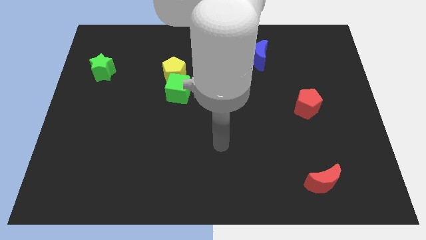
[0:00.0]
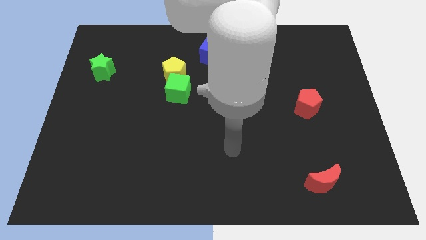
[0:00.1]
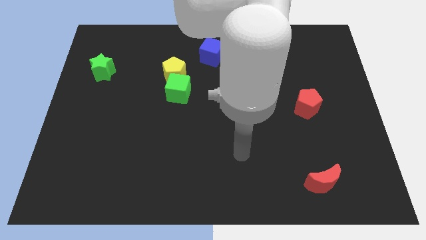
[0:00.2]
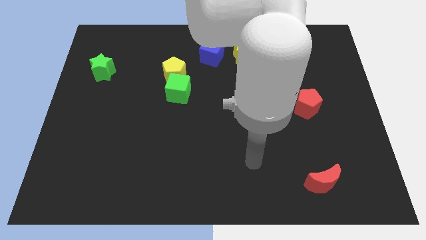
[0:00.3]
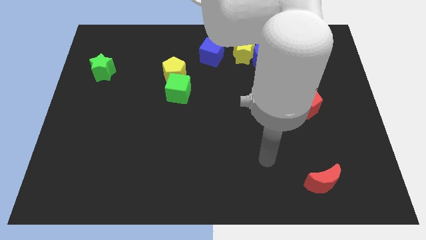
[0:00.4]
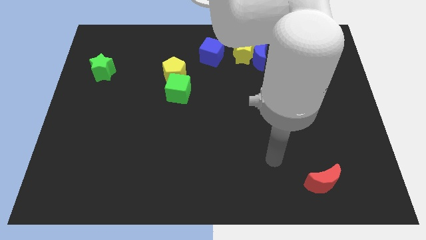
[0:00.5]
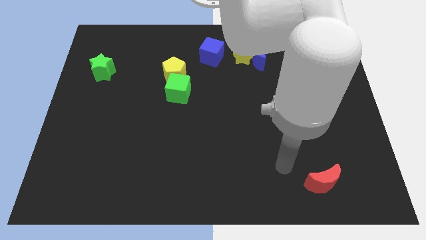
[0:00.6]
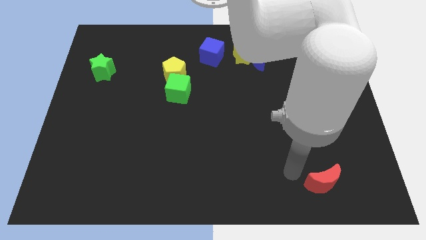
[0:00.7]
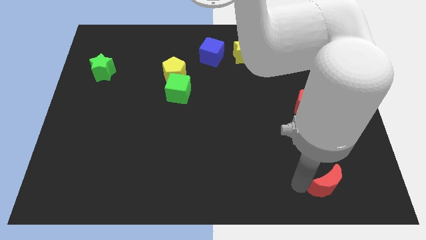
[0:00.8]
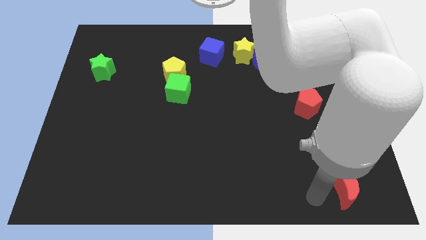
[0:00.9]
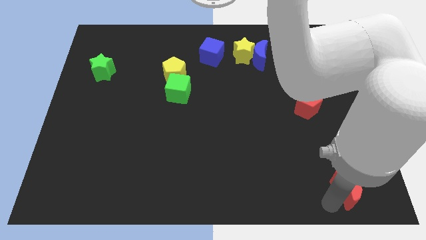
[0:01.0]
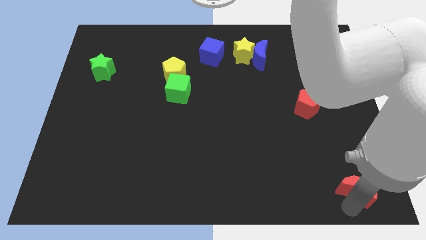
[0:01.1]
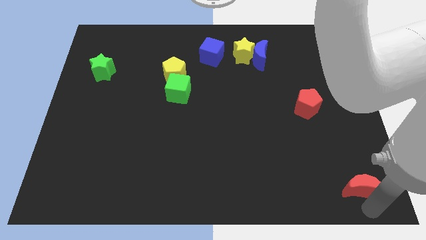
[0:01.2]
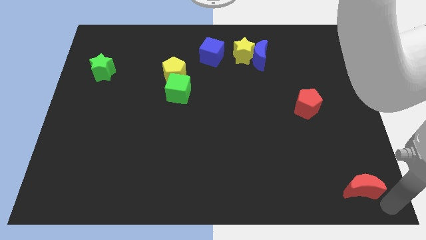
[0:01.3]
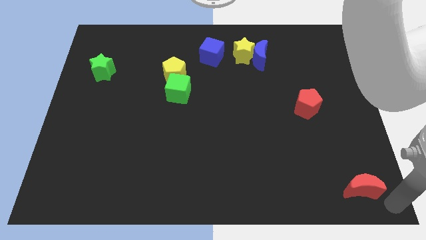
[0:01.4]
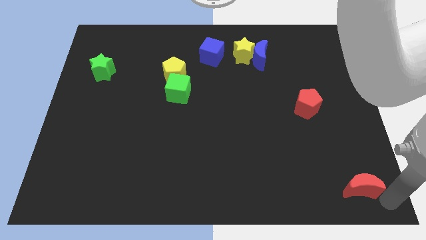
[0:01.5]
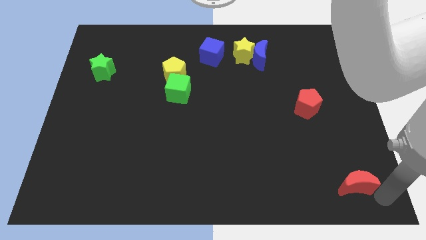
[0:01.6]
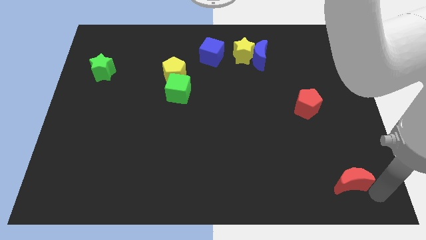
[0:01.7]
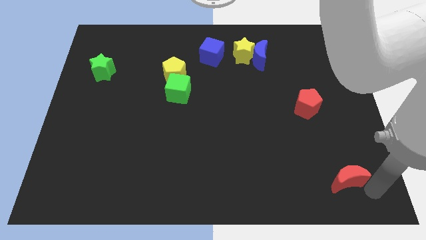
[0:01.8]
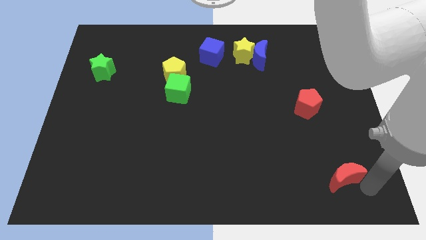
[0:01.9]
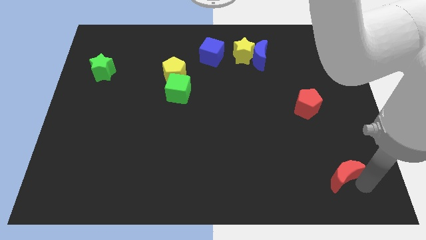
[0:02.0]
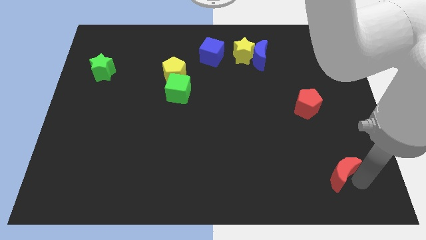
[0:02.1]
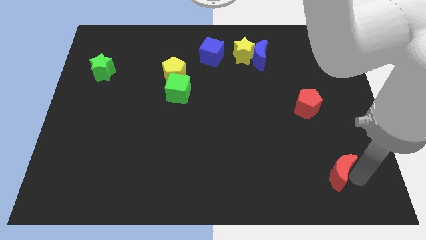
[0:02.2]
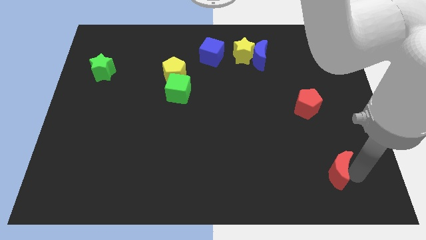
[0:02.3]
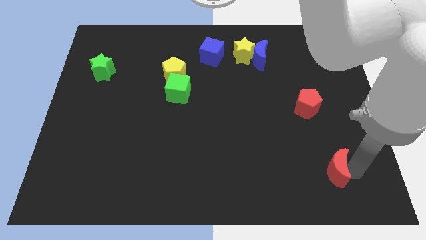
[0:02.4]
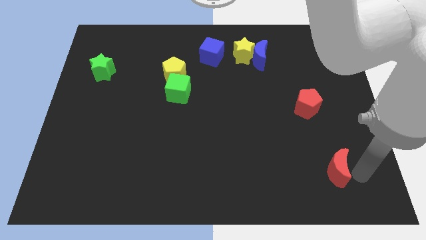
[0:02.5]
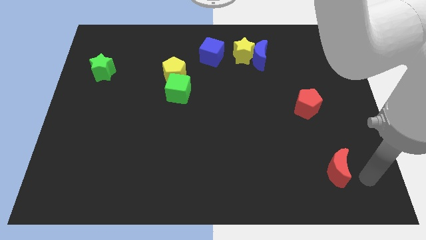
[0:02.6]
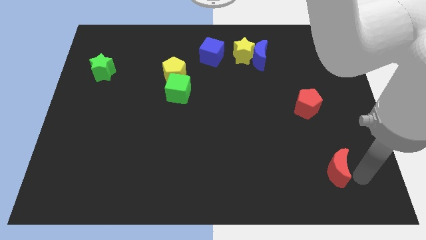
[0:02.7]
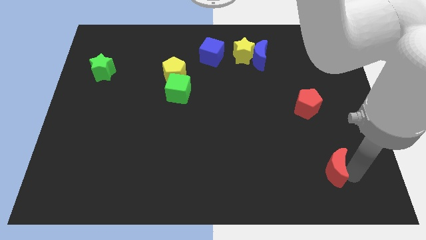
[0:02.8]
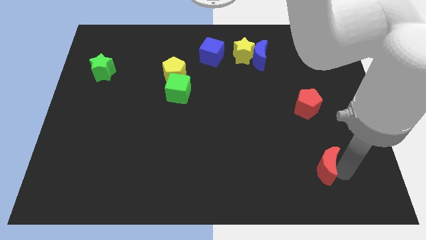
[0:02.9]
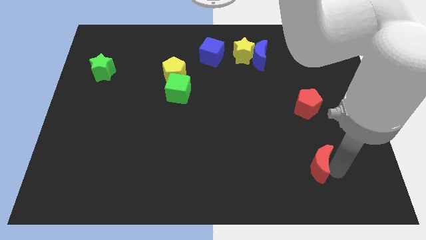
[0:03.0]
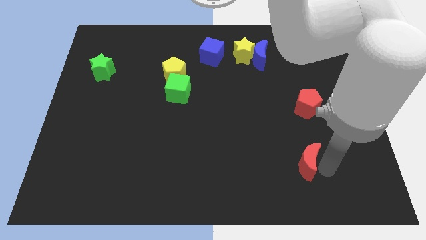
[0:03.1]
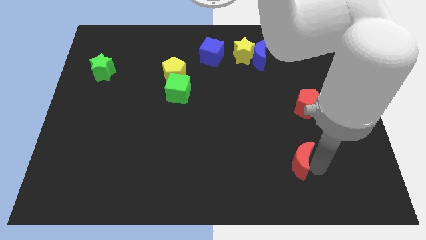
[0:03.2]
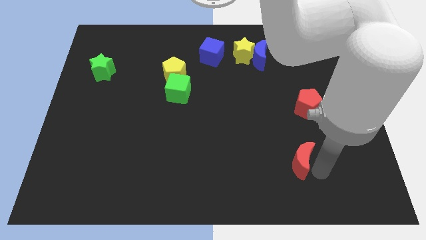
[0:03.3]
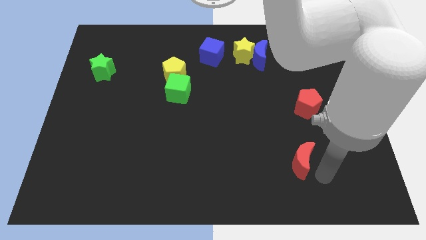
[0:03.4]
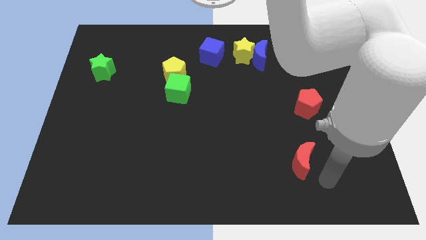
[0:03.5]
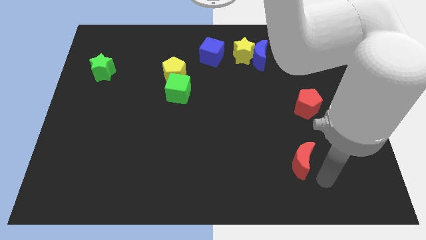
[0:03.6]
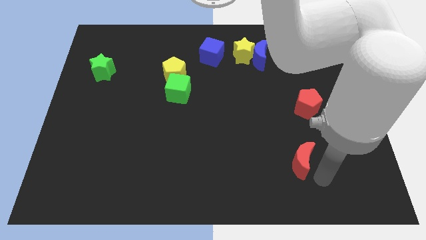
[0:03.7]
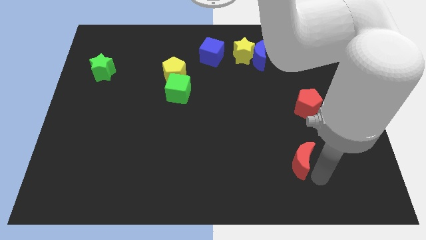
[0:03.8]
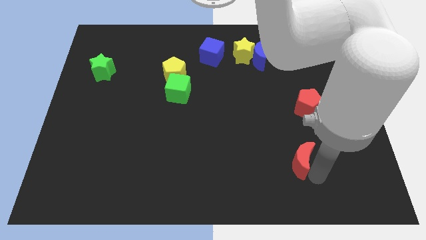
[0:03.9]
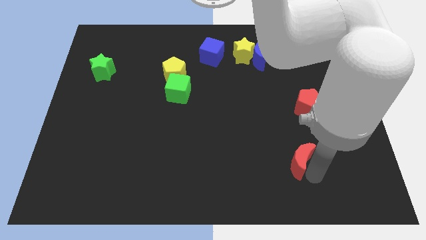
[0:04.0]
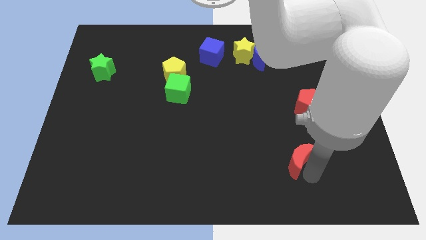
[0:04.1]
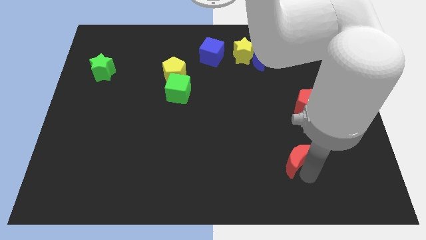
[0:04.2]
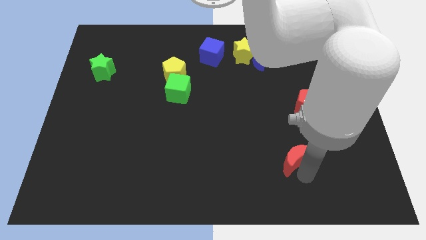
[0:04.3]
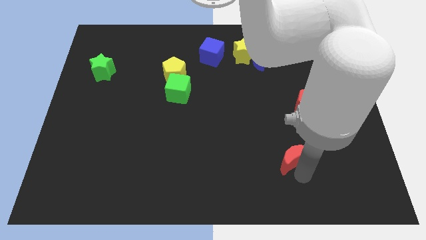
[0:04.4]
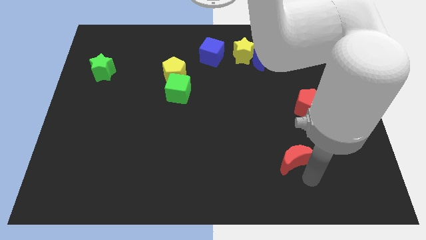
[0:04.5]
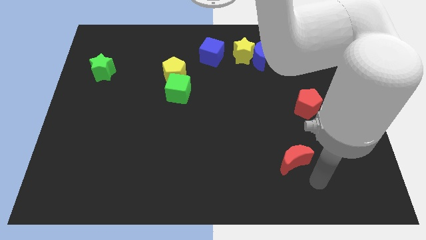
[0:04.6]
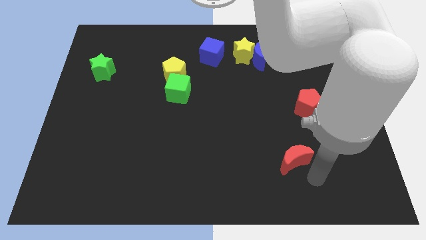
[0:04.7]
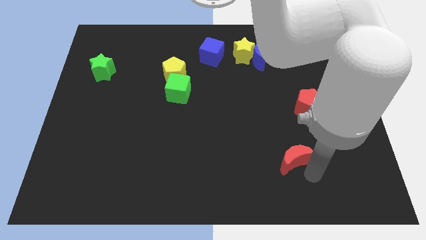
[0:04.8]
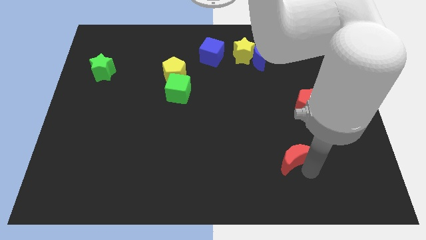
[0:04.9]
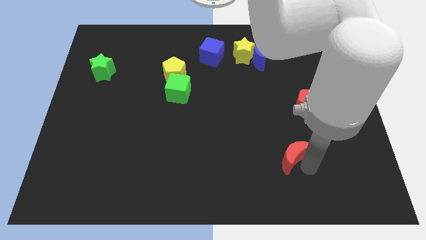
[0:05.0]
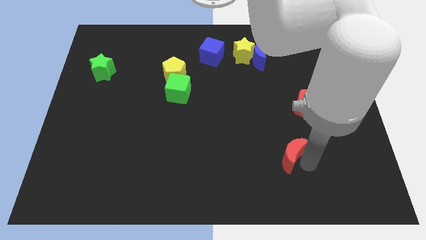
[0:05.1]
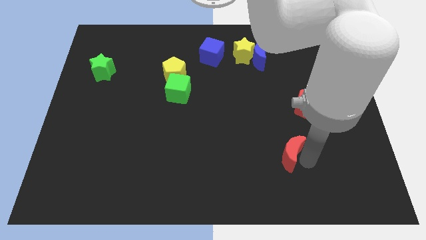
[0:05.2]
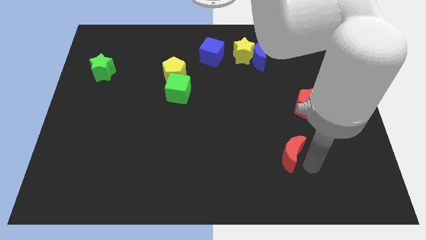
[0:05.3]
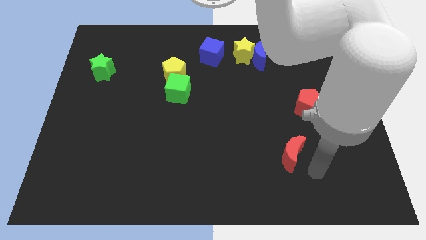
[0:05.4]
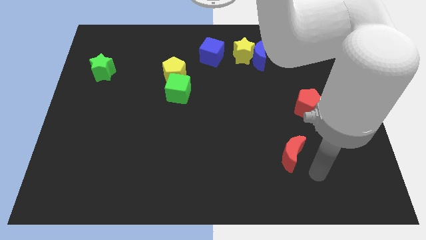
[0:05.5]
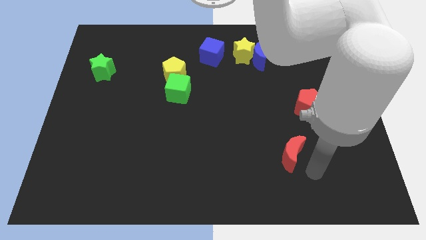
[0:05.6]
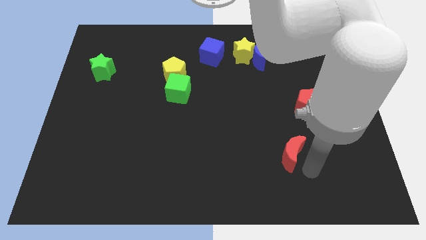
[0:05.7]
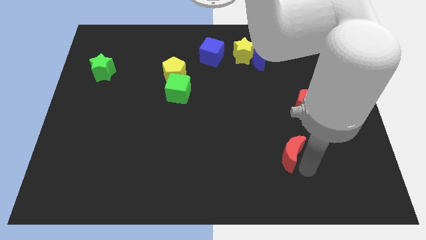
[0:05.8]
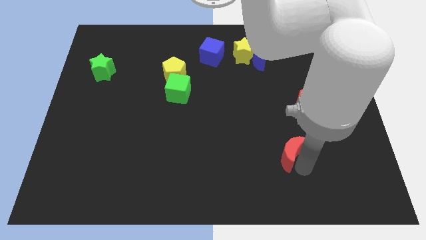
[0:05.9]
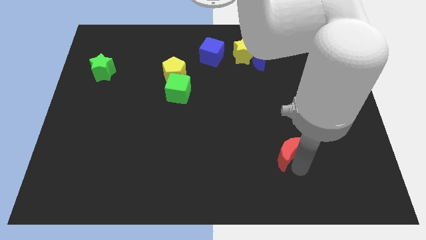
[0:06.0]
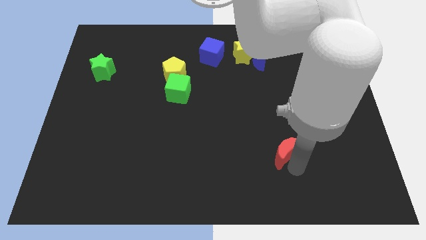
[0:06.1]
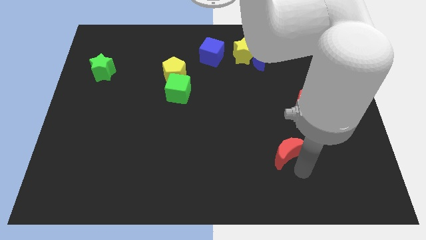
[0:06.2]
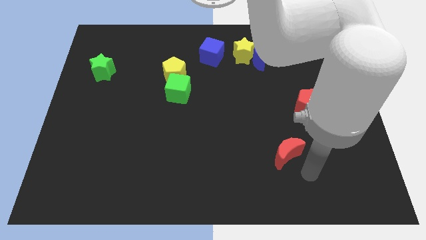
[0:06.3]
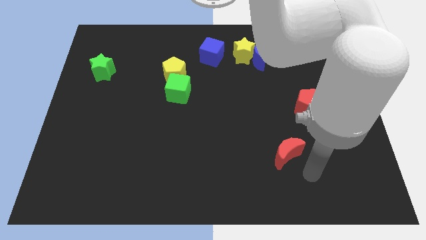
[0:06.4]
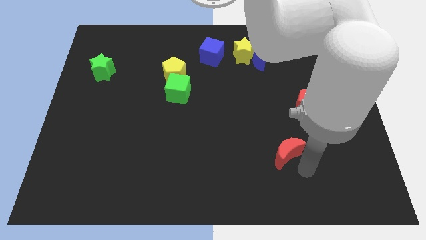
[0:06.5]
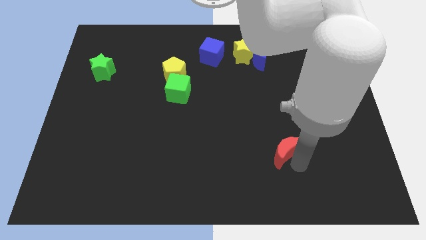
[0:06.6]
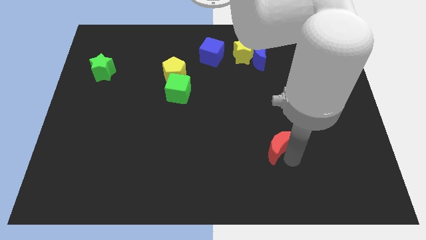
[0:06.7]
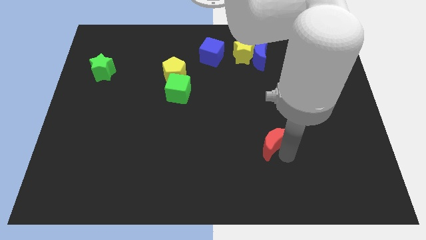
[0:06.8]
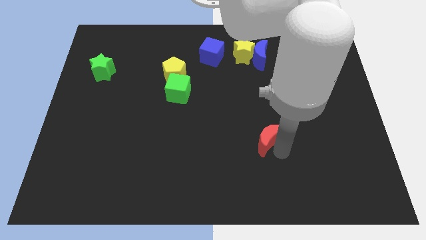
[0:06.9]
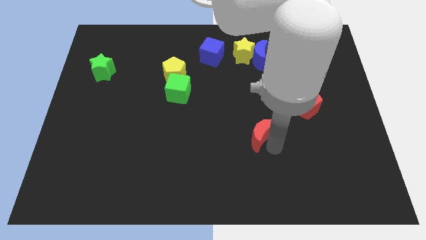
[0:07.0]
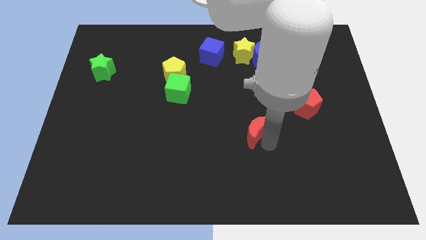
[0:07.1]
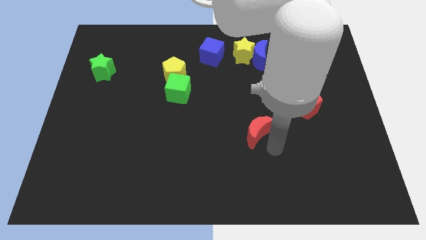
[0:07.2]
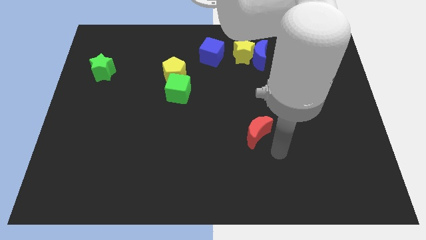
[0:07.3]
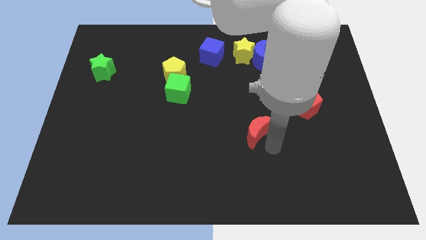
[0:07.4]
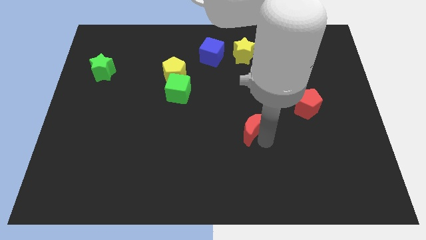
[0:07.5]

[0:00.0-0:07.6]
push the red moon to the middle
